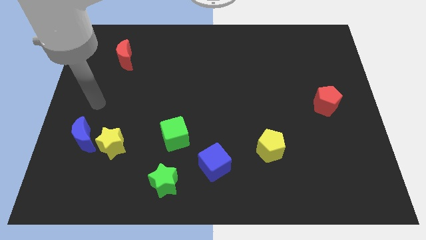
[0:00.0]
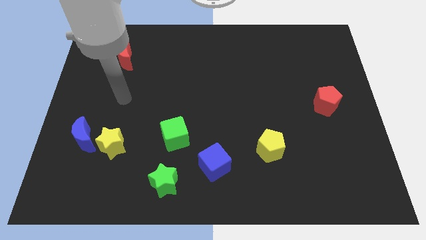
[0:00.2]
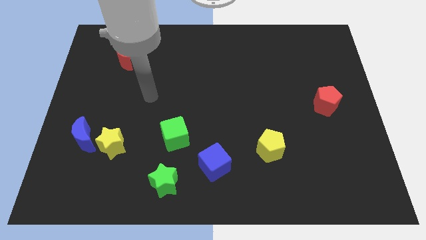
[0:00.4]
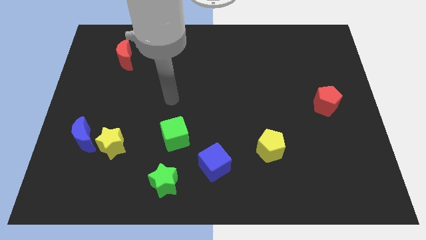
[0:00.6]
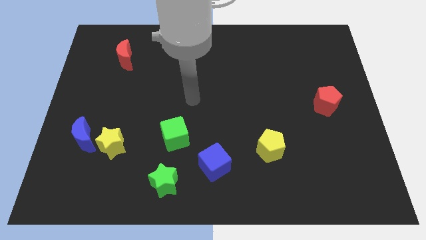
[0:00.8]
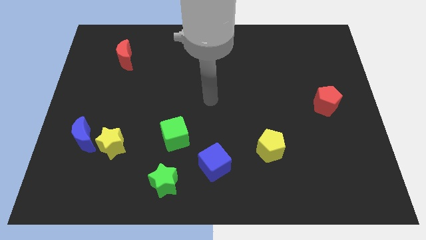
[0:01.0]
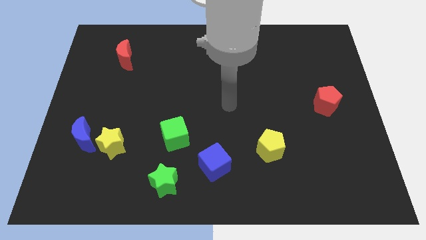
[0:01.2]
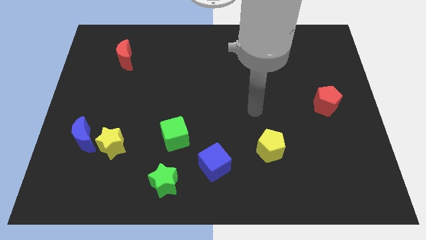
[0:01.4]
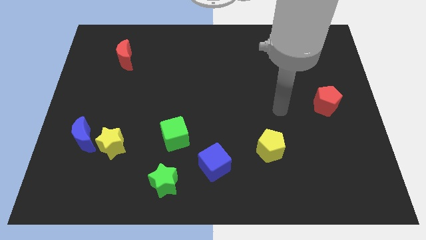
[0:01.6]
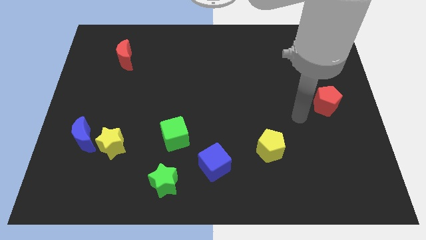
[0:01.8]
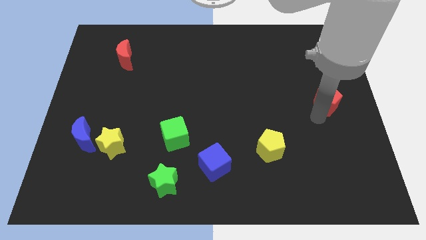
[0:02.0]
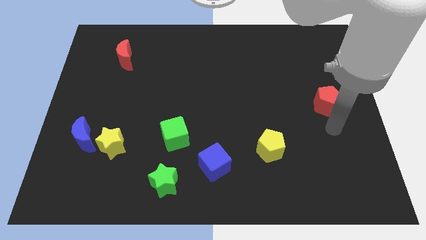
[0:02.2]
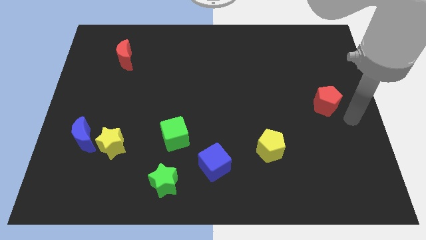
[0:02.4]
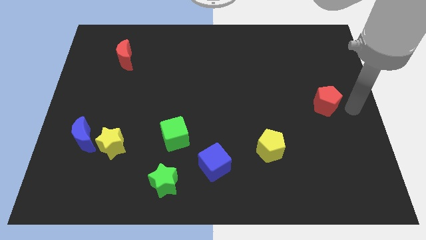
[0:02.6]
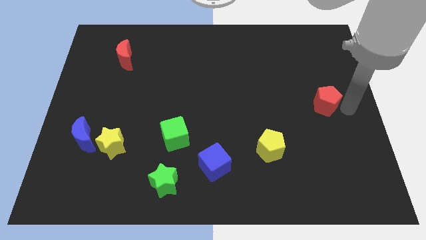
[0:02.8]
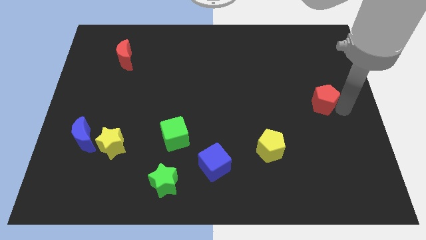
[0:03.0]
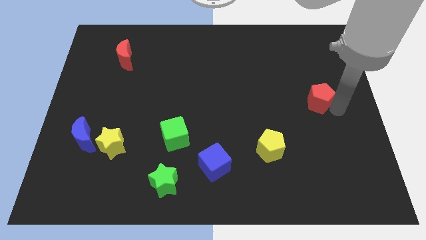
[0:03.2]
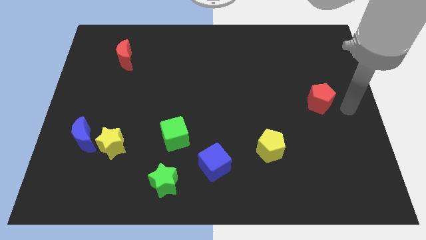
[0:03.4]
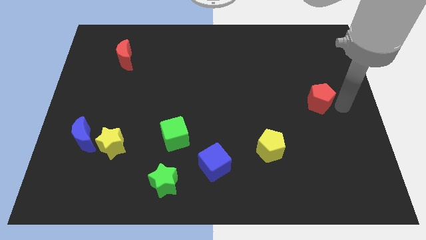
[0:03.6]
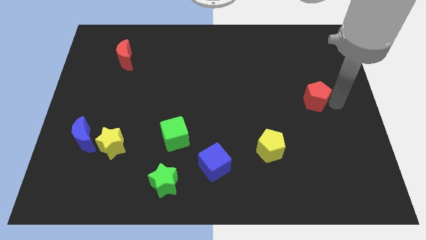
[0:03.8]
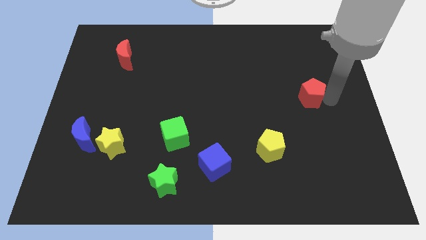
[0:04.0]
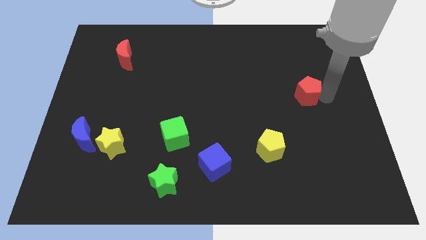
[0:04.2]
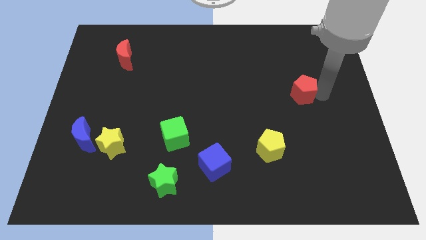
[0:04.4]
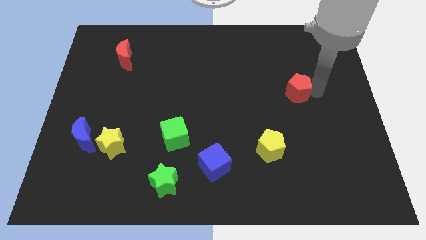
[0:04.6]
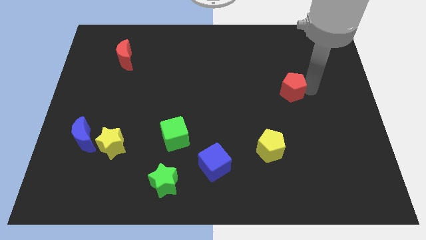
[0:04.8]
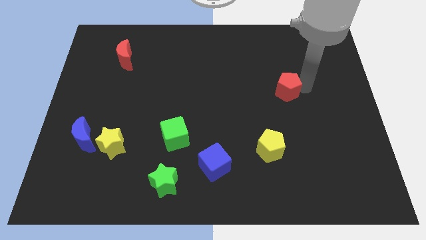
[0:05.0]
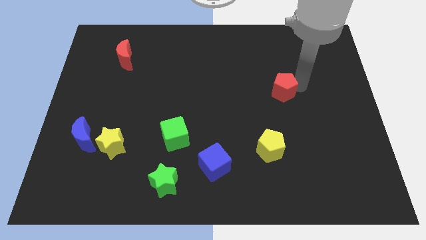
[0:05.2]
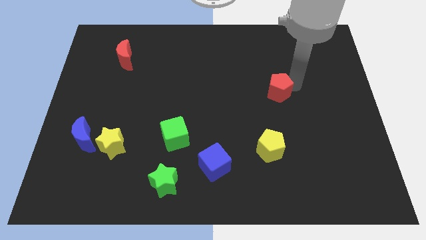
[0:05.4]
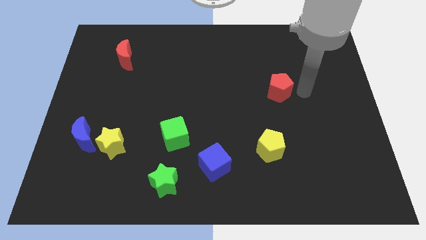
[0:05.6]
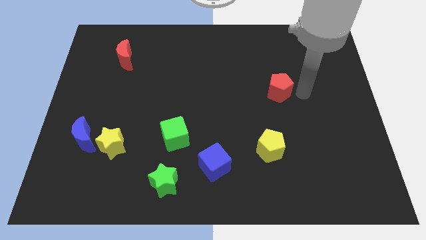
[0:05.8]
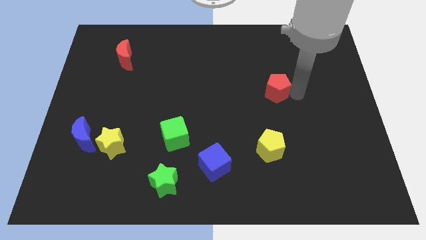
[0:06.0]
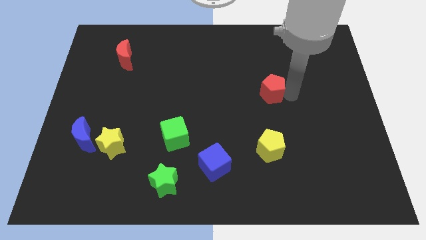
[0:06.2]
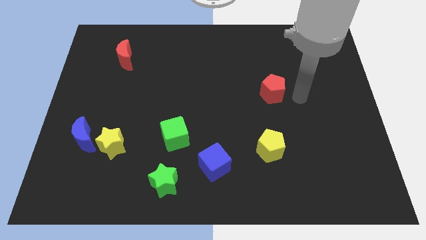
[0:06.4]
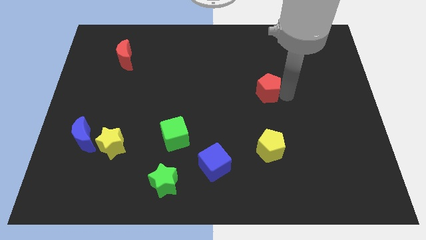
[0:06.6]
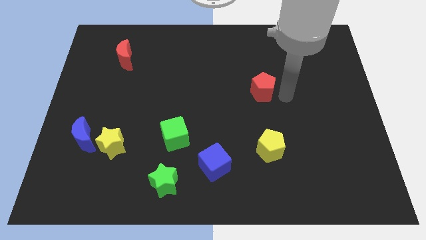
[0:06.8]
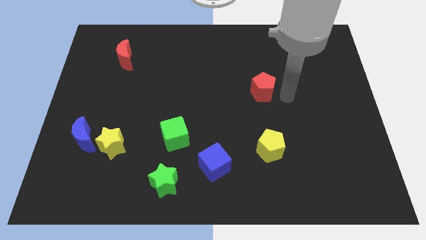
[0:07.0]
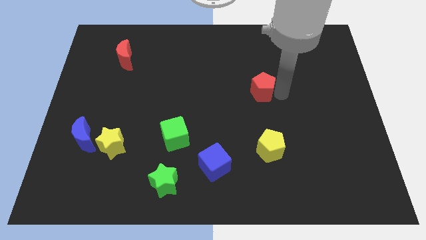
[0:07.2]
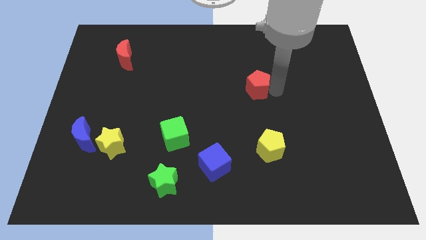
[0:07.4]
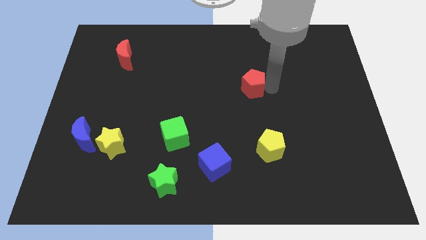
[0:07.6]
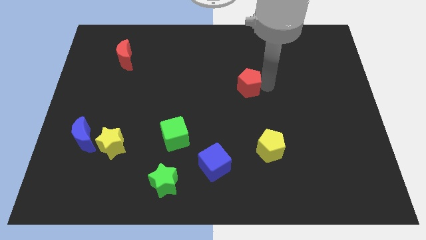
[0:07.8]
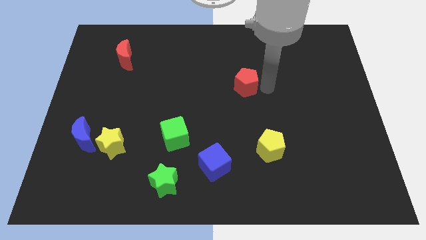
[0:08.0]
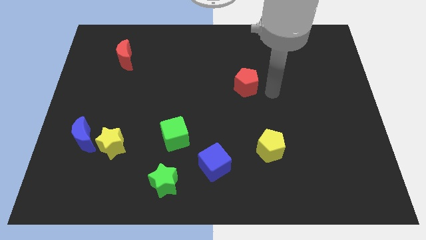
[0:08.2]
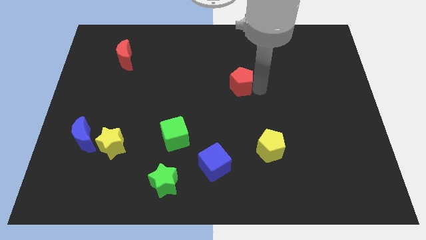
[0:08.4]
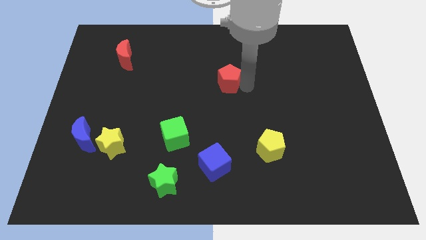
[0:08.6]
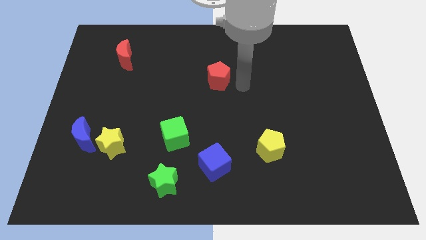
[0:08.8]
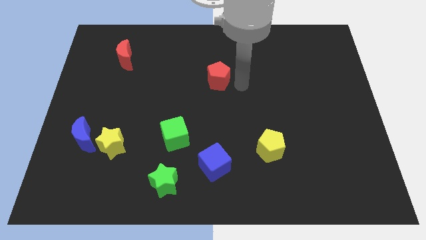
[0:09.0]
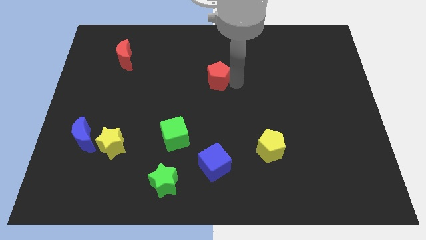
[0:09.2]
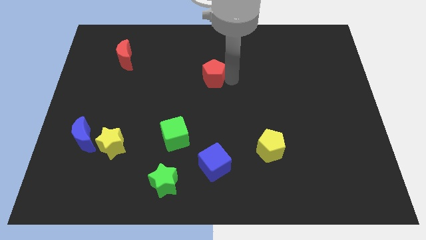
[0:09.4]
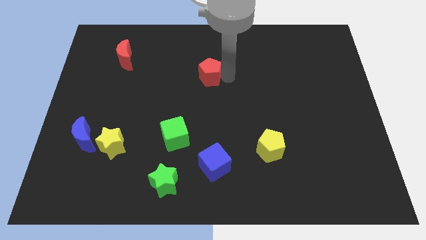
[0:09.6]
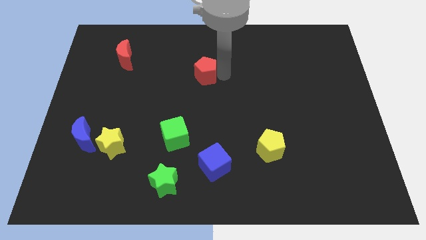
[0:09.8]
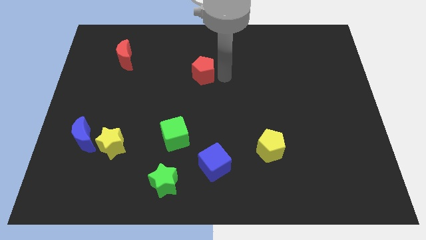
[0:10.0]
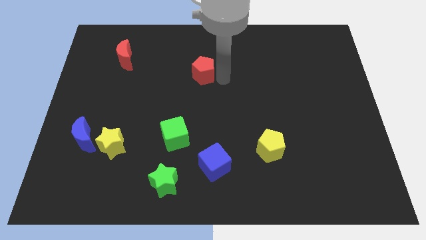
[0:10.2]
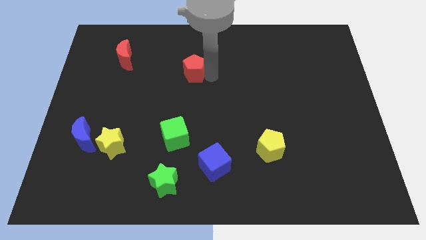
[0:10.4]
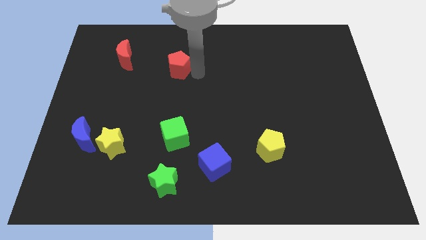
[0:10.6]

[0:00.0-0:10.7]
push the red pentagon to the right of the red moon
